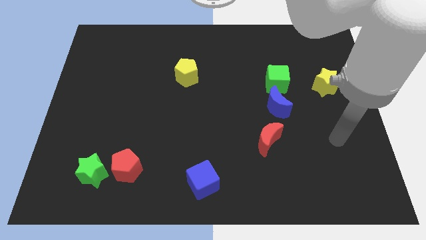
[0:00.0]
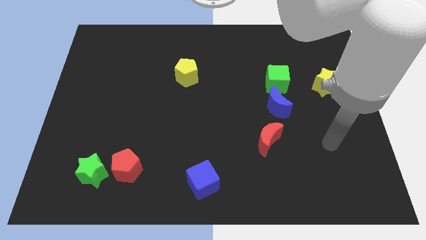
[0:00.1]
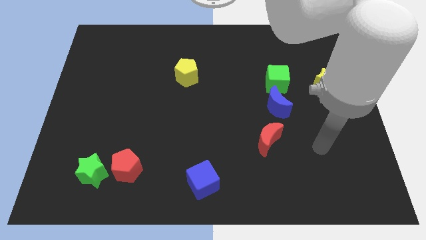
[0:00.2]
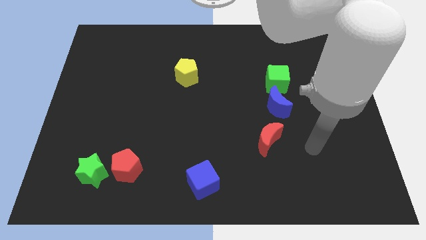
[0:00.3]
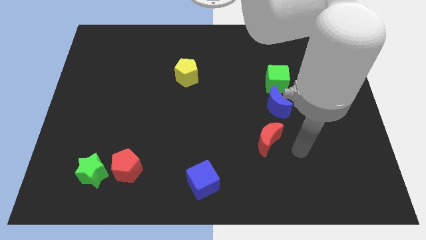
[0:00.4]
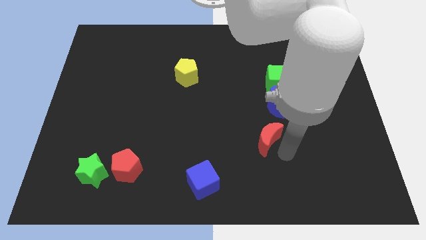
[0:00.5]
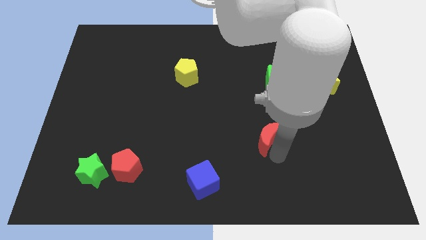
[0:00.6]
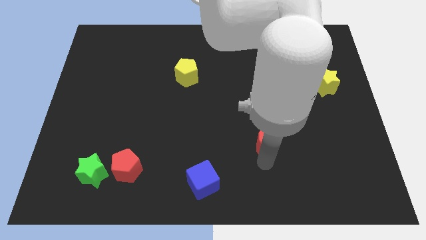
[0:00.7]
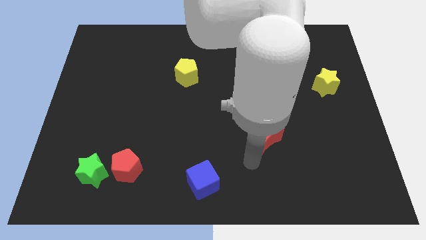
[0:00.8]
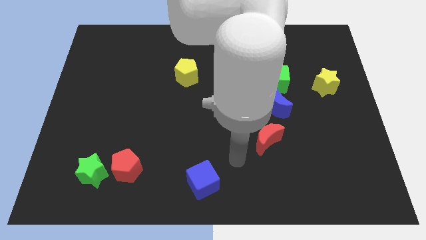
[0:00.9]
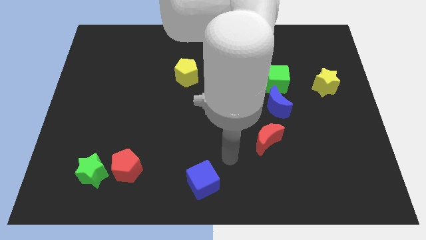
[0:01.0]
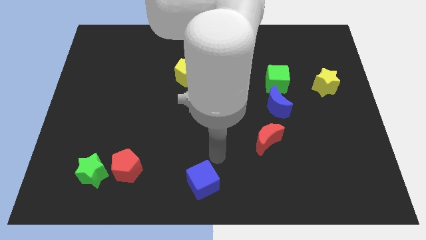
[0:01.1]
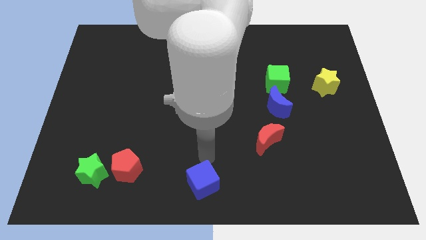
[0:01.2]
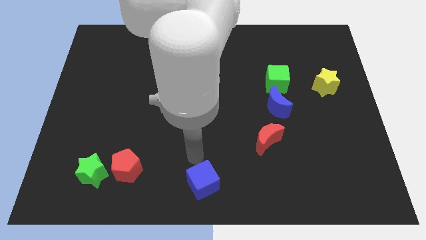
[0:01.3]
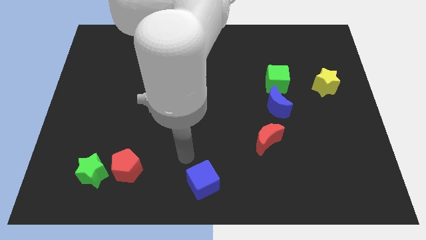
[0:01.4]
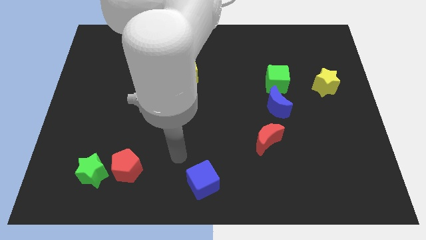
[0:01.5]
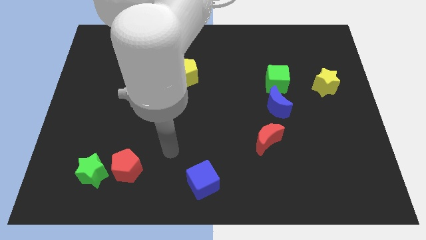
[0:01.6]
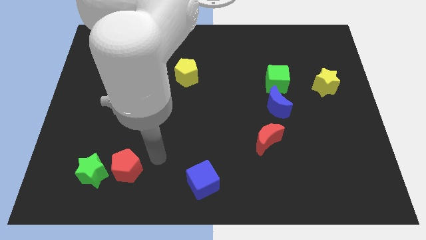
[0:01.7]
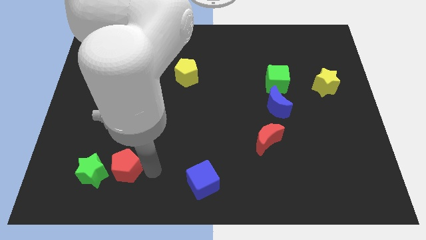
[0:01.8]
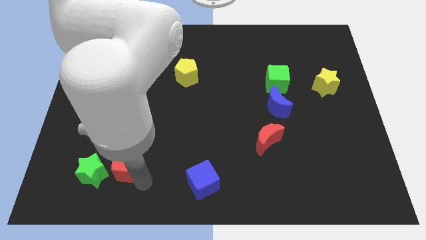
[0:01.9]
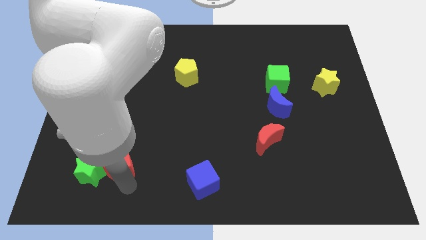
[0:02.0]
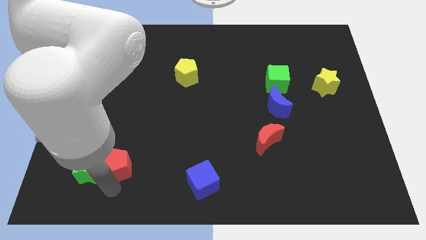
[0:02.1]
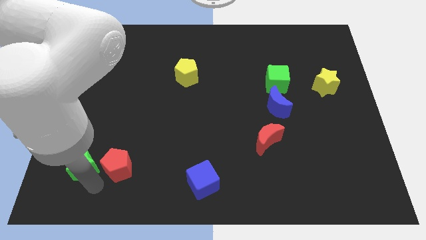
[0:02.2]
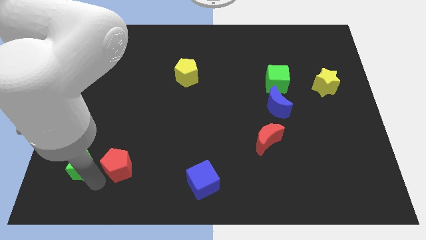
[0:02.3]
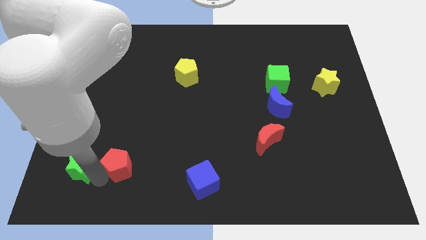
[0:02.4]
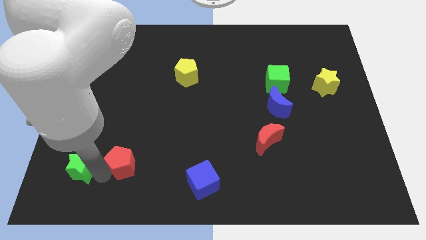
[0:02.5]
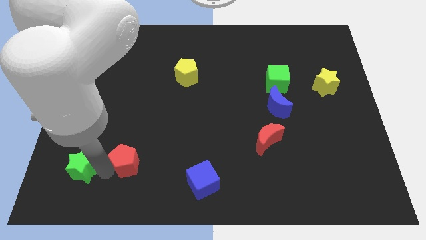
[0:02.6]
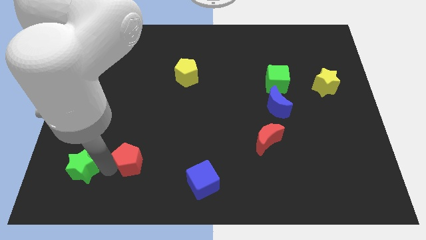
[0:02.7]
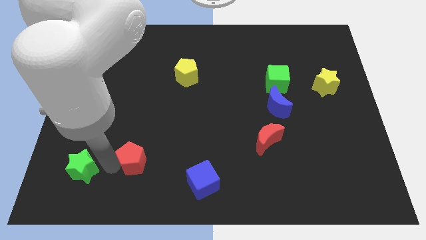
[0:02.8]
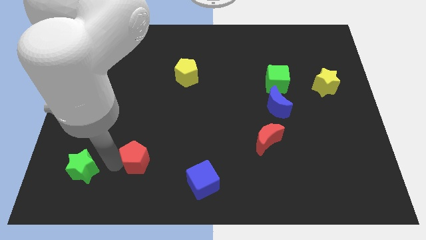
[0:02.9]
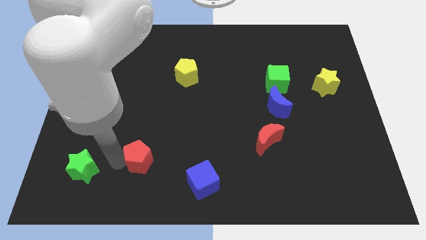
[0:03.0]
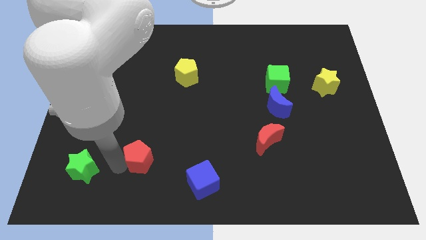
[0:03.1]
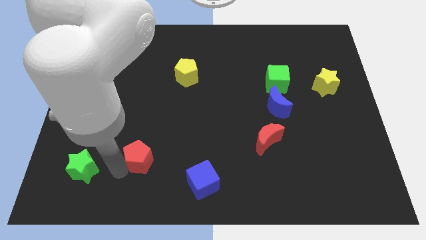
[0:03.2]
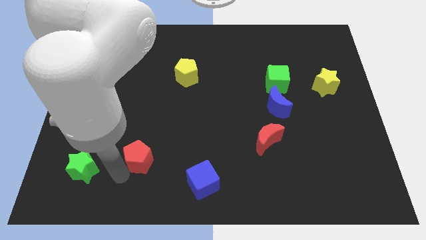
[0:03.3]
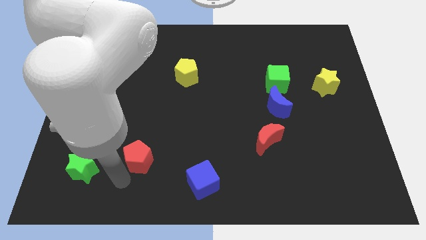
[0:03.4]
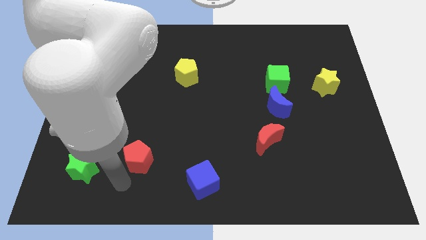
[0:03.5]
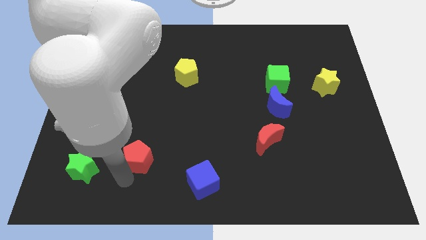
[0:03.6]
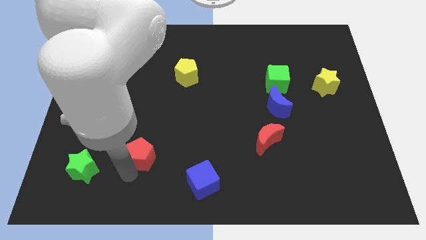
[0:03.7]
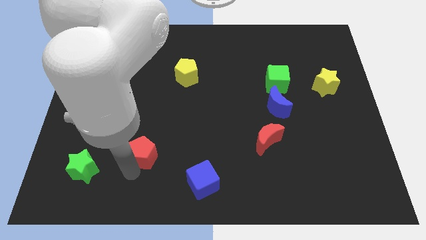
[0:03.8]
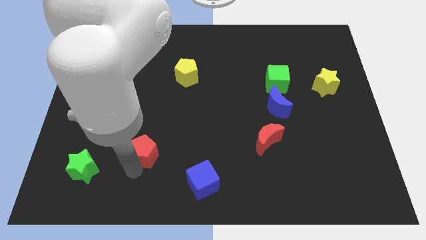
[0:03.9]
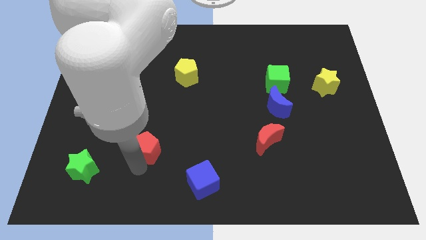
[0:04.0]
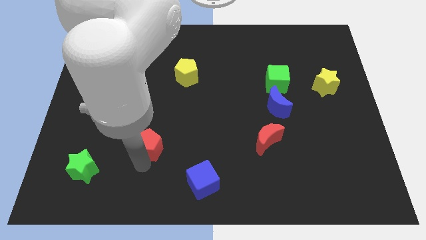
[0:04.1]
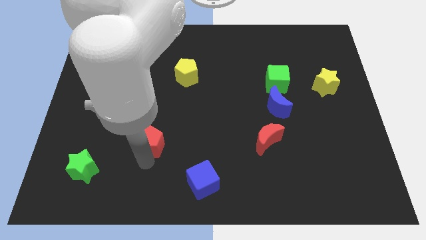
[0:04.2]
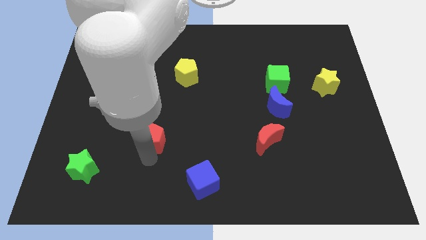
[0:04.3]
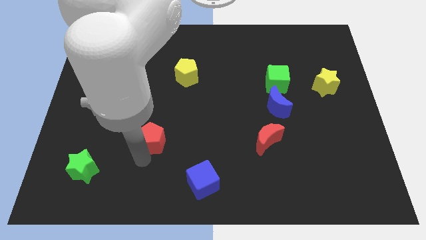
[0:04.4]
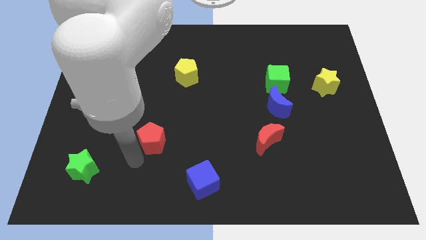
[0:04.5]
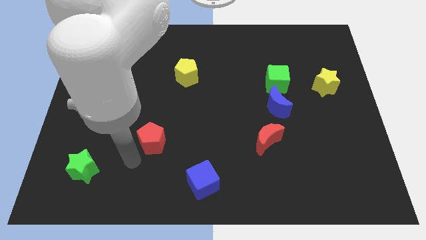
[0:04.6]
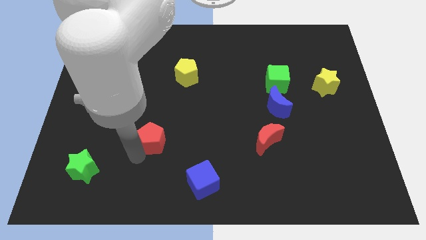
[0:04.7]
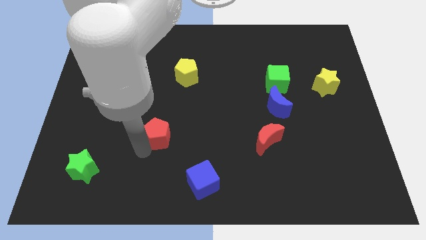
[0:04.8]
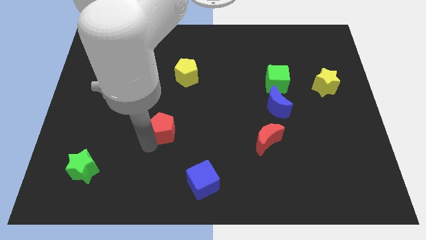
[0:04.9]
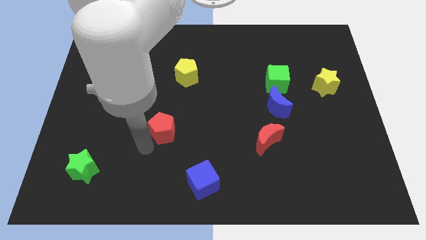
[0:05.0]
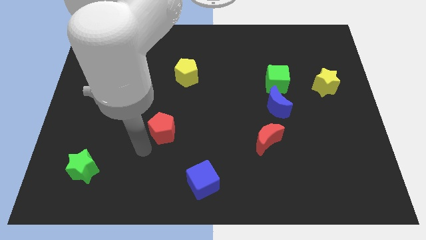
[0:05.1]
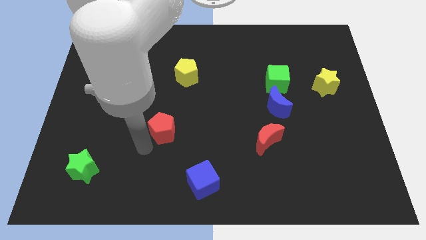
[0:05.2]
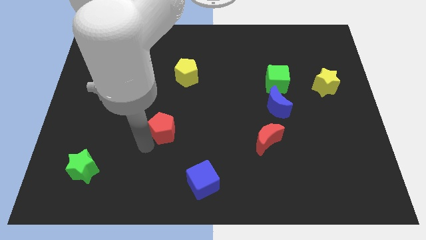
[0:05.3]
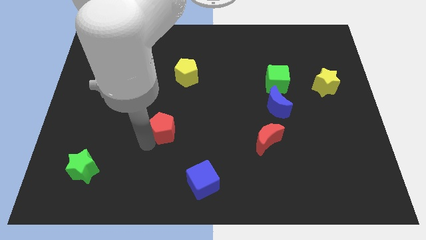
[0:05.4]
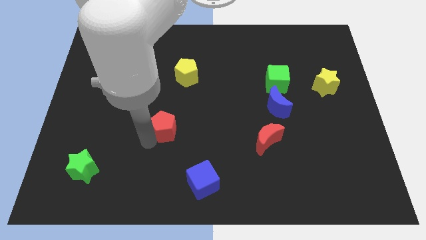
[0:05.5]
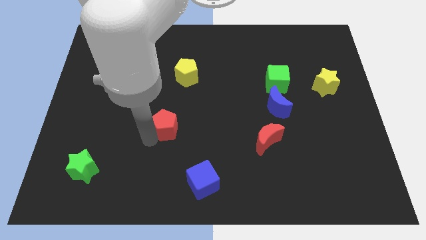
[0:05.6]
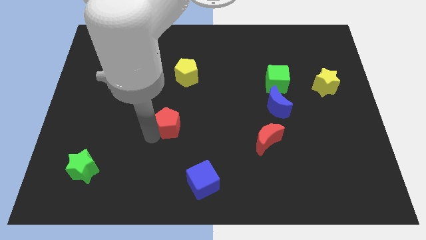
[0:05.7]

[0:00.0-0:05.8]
push the red pentagon to the center
